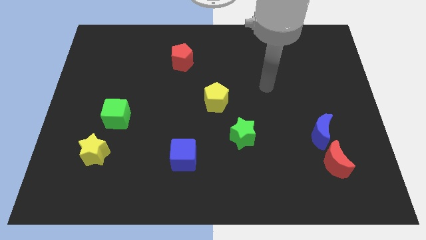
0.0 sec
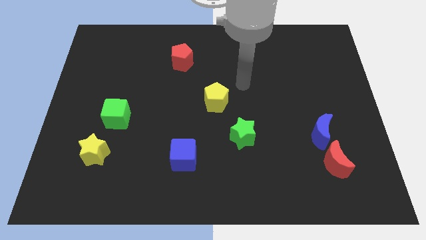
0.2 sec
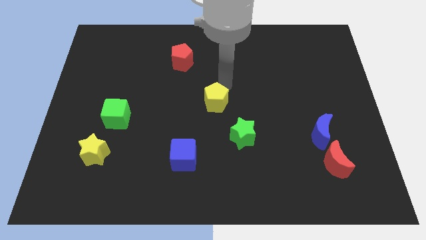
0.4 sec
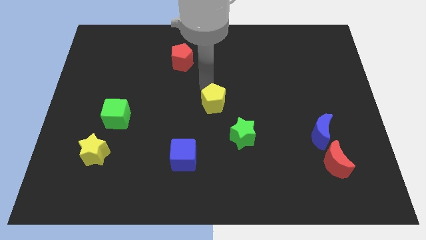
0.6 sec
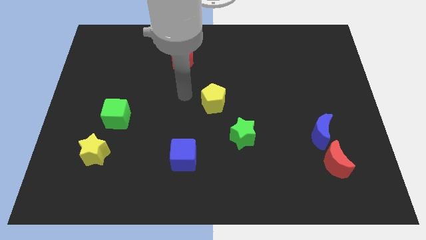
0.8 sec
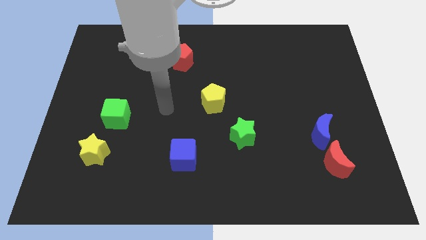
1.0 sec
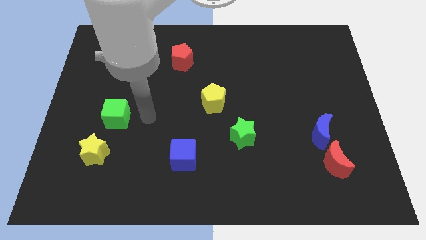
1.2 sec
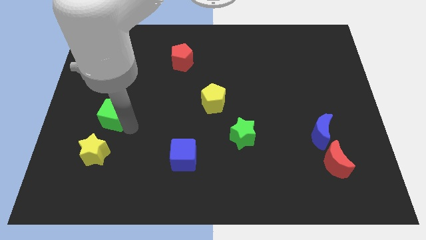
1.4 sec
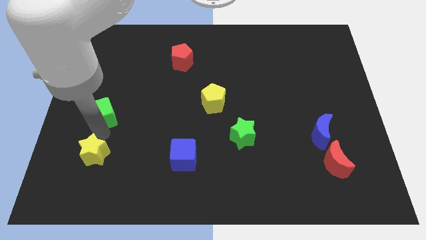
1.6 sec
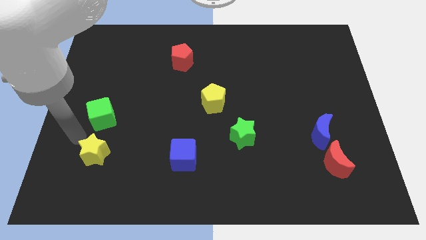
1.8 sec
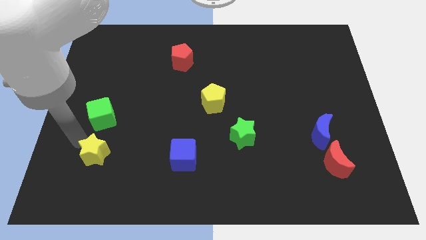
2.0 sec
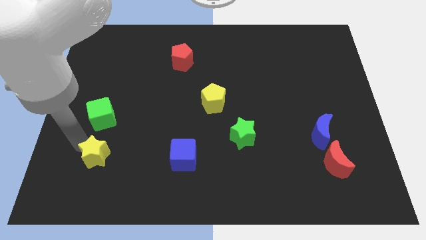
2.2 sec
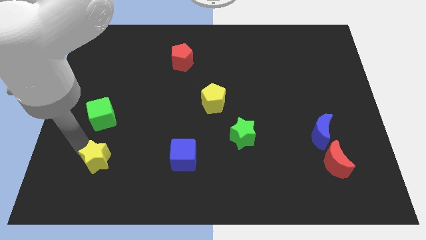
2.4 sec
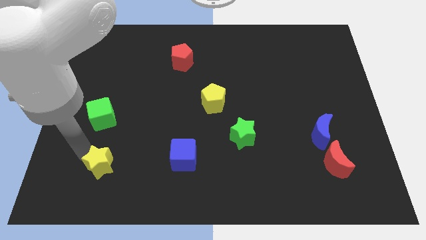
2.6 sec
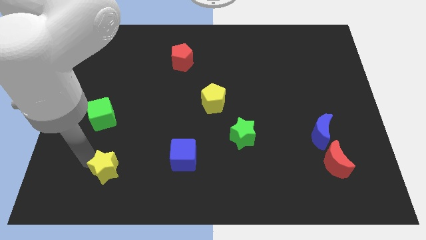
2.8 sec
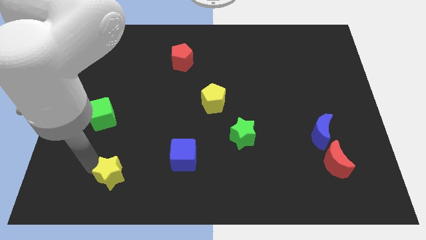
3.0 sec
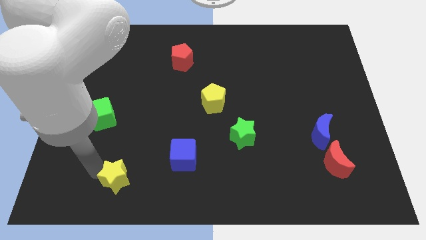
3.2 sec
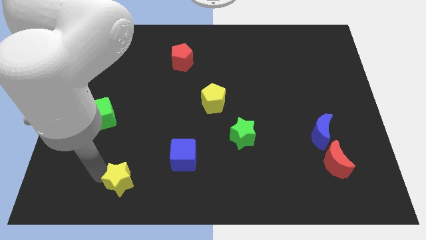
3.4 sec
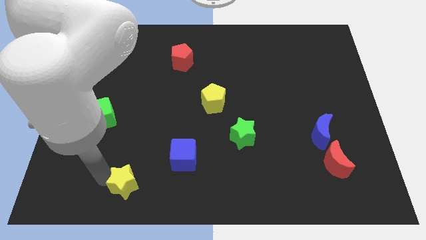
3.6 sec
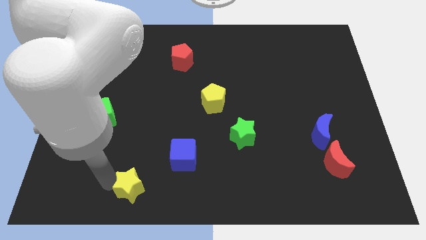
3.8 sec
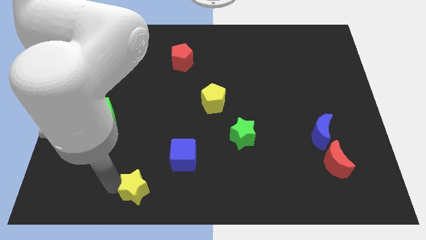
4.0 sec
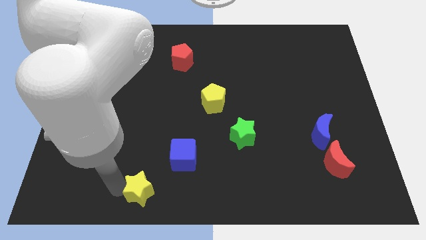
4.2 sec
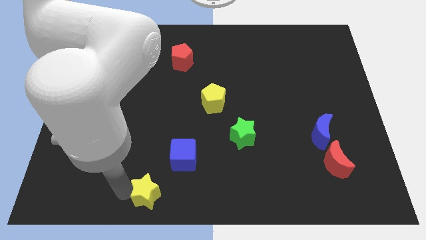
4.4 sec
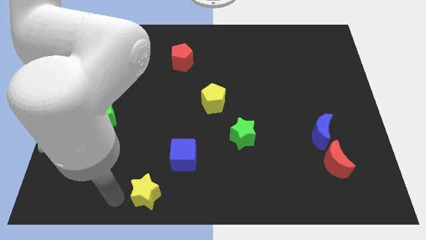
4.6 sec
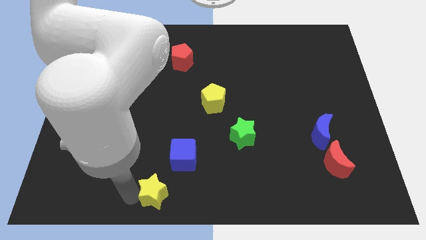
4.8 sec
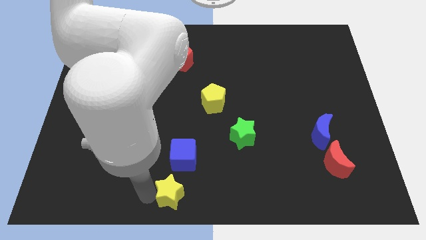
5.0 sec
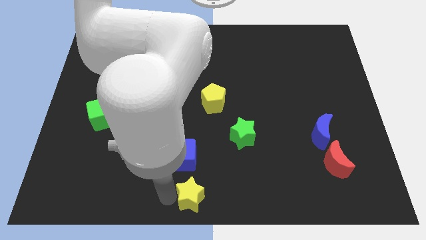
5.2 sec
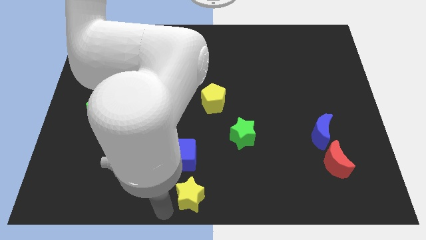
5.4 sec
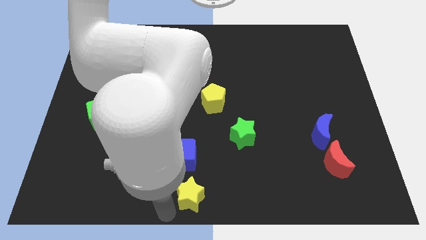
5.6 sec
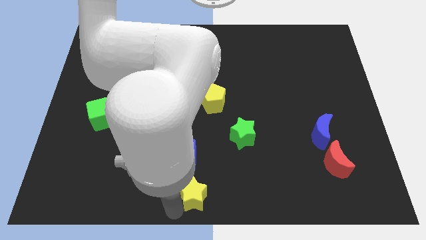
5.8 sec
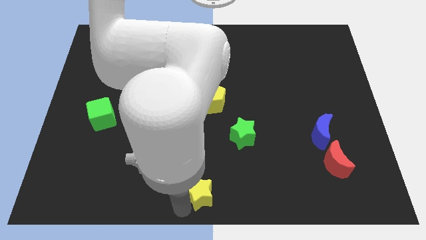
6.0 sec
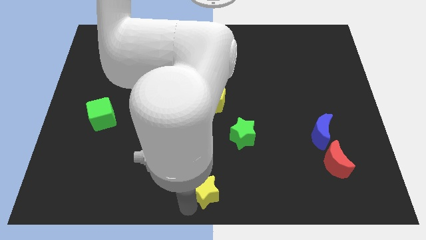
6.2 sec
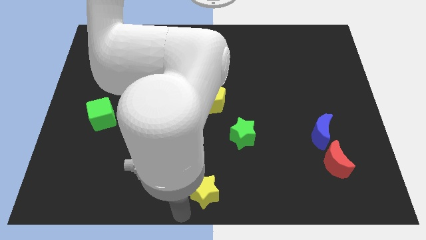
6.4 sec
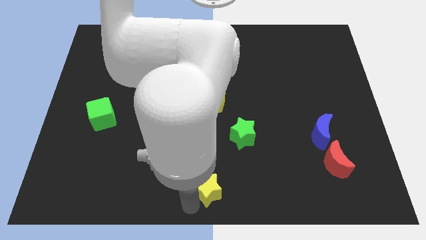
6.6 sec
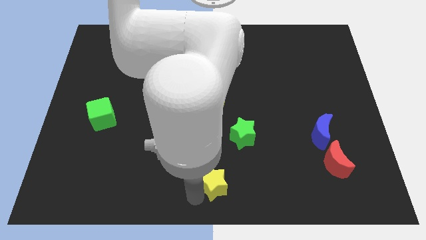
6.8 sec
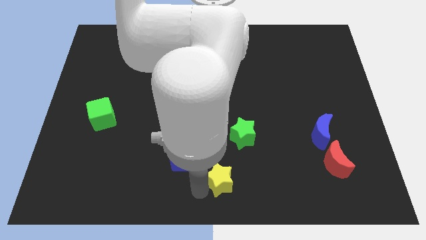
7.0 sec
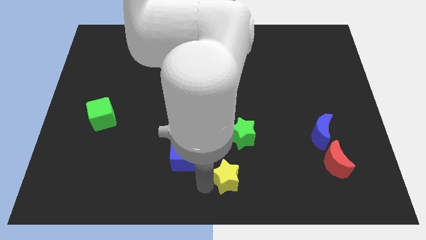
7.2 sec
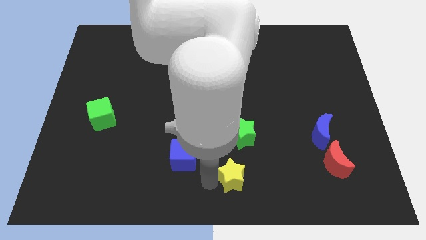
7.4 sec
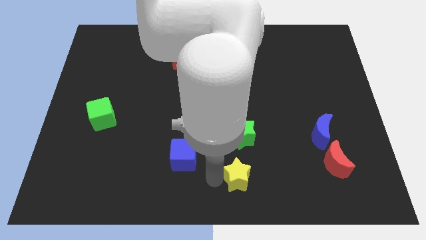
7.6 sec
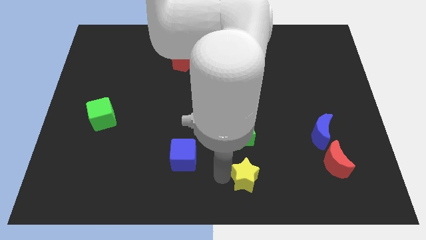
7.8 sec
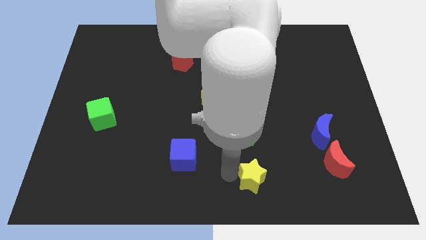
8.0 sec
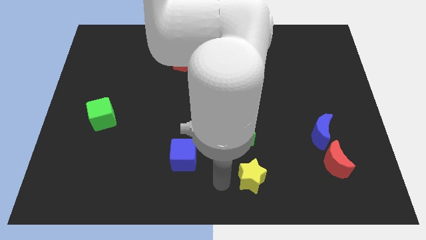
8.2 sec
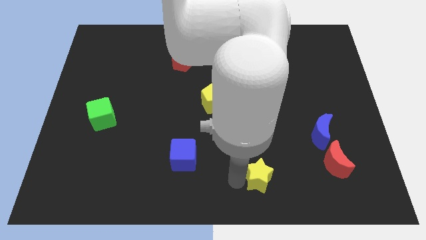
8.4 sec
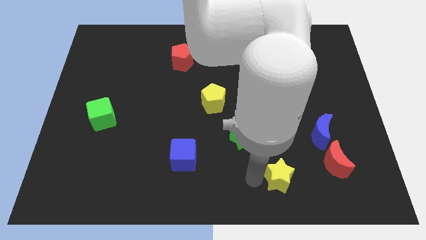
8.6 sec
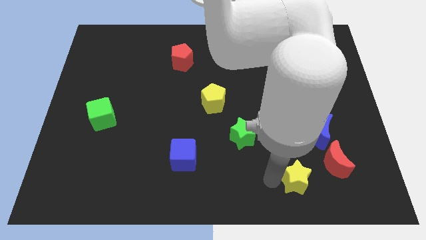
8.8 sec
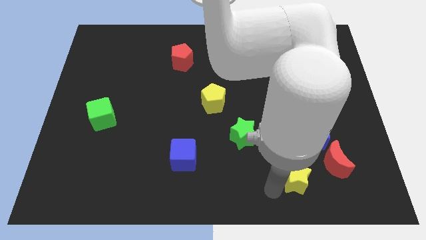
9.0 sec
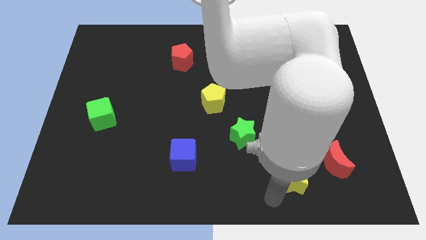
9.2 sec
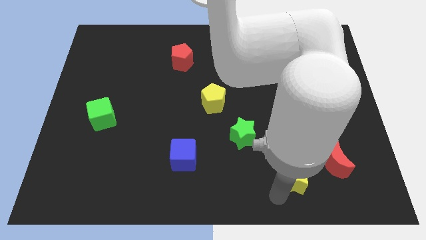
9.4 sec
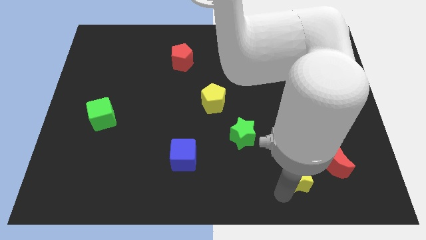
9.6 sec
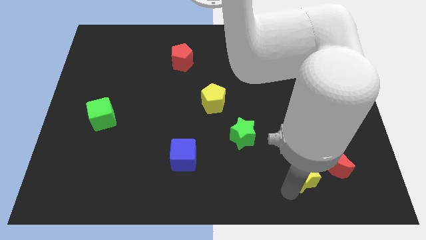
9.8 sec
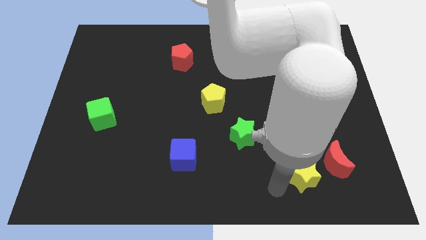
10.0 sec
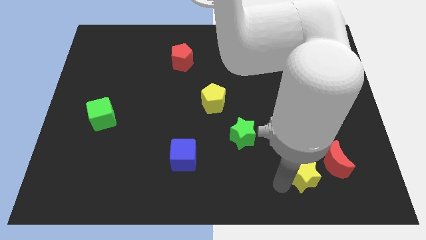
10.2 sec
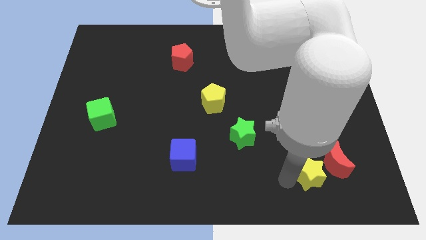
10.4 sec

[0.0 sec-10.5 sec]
move the yellow star close to the red moon

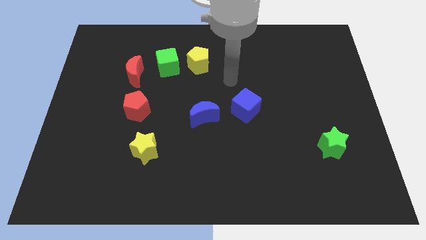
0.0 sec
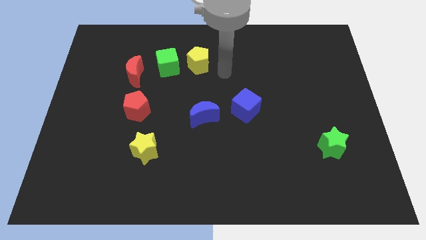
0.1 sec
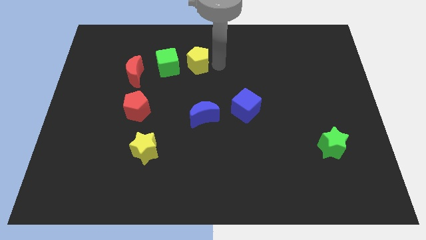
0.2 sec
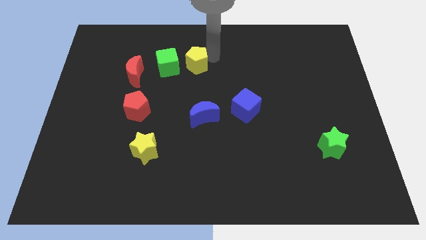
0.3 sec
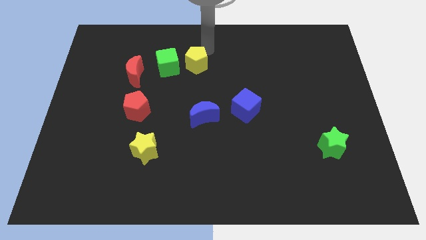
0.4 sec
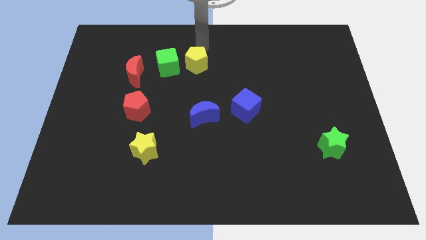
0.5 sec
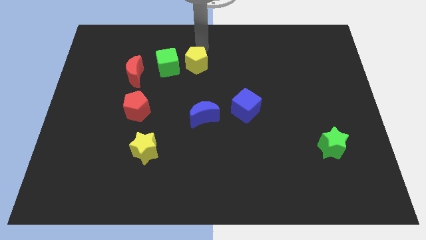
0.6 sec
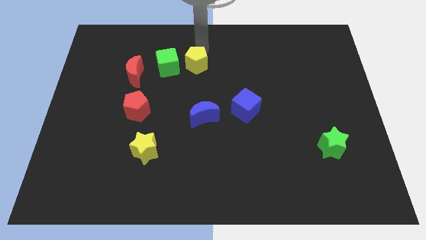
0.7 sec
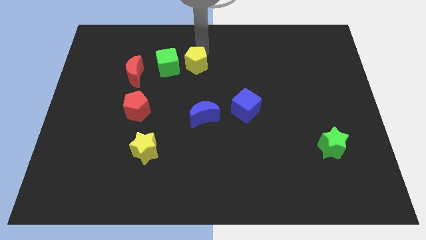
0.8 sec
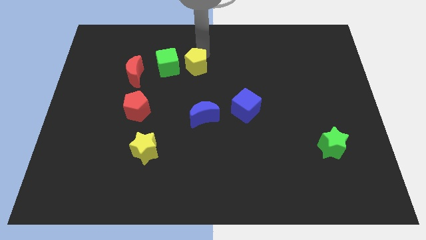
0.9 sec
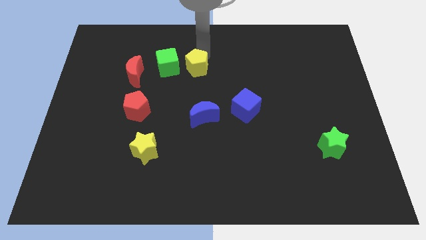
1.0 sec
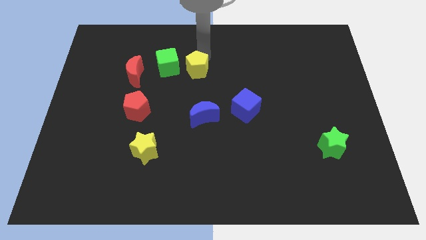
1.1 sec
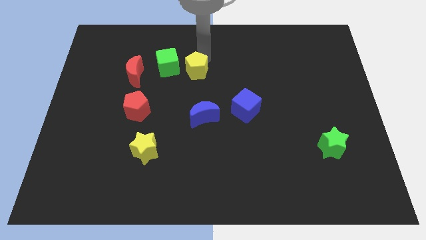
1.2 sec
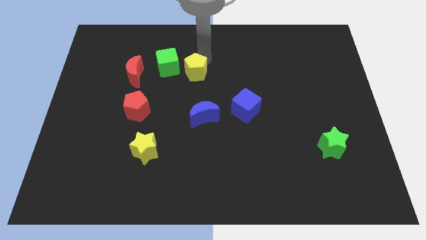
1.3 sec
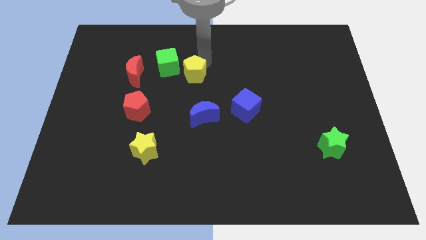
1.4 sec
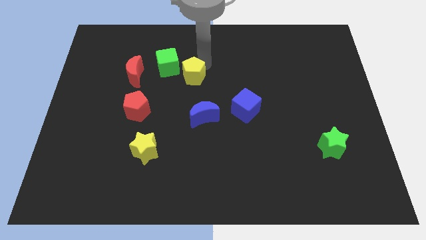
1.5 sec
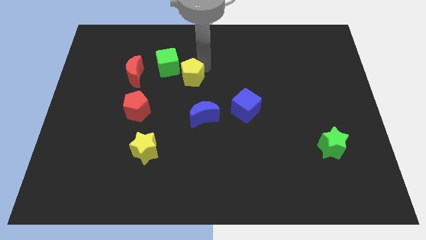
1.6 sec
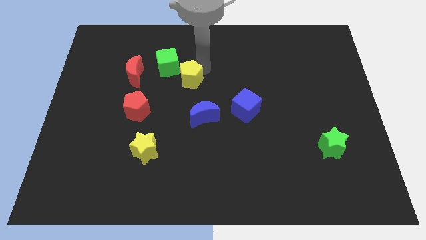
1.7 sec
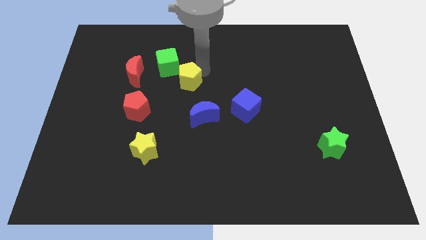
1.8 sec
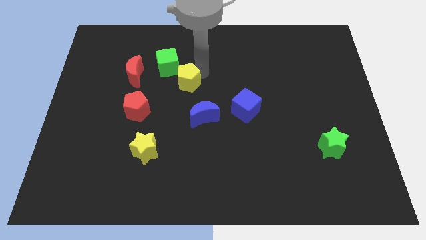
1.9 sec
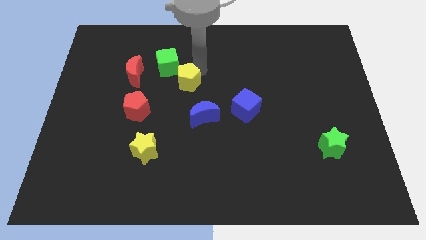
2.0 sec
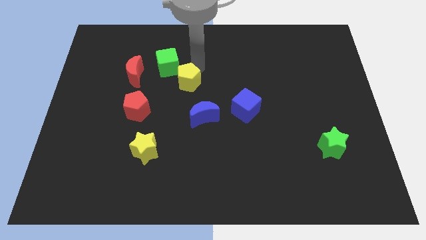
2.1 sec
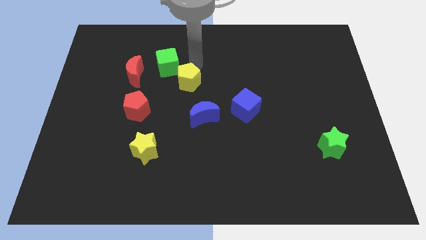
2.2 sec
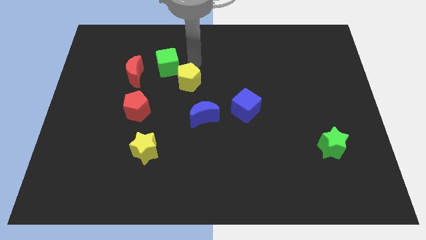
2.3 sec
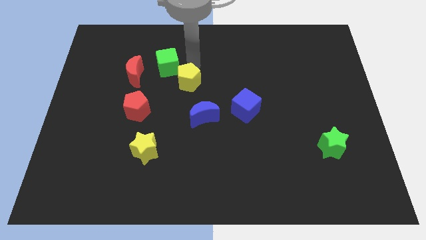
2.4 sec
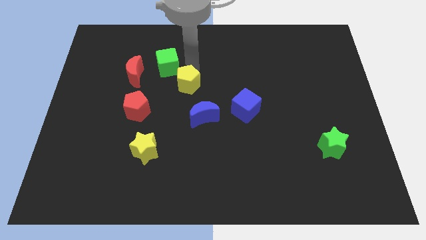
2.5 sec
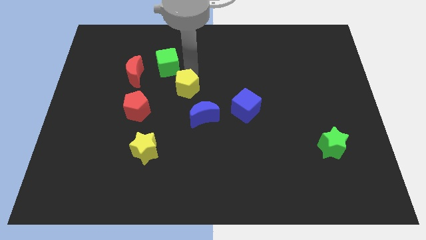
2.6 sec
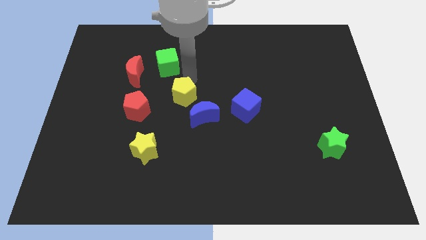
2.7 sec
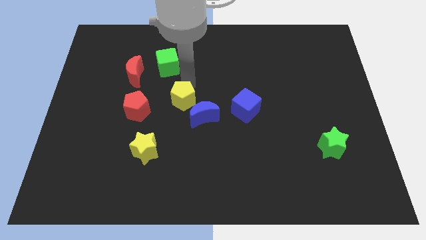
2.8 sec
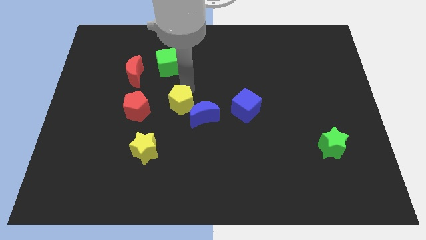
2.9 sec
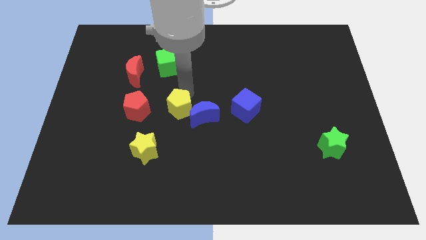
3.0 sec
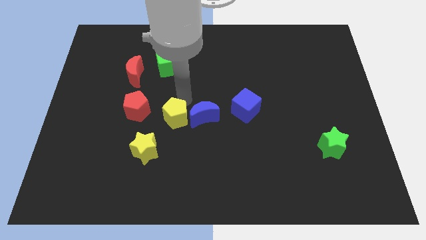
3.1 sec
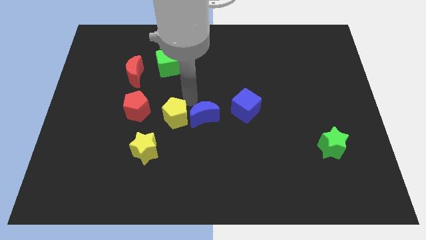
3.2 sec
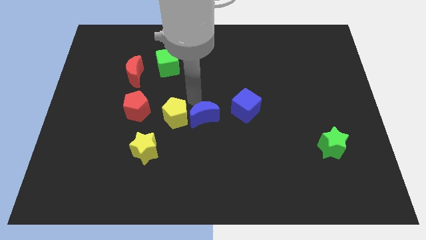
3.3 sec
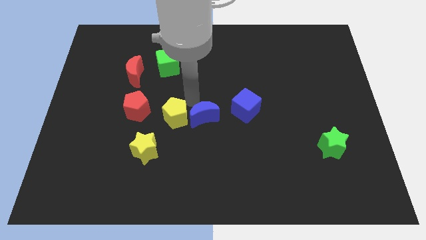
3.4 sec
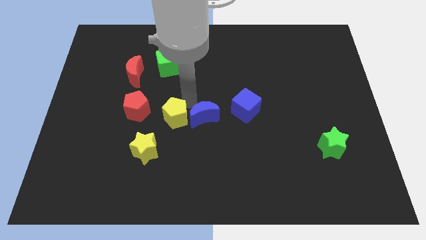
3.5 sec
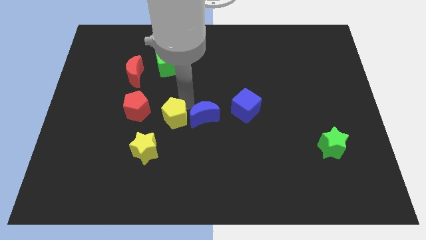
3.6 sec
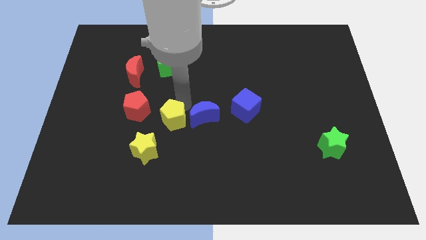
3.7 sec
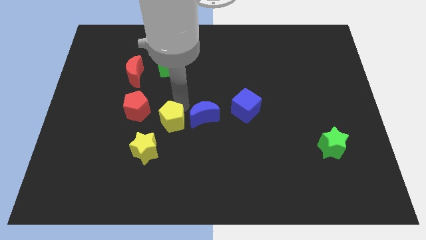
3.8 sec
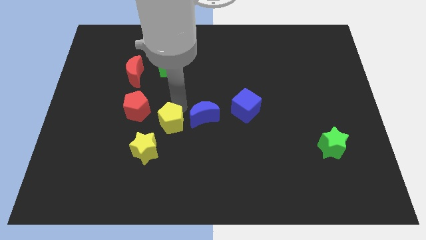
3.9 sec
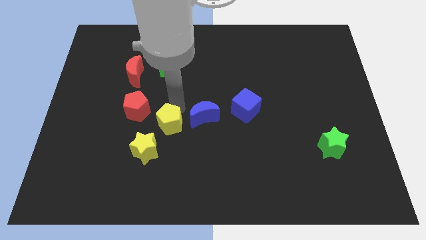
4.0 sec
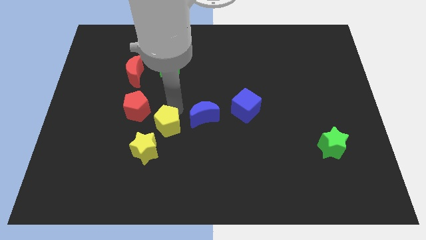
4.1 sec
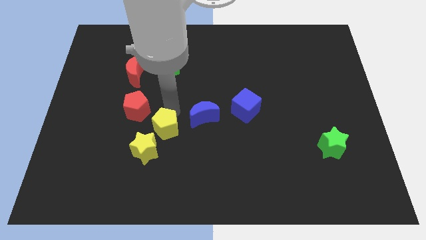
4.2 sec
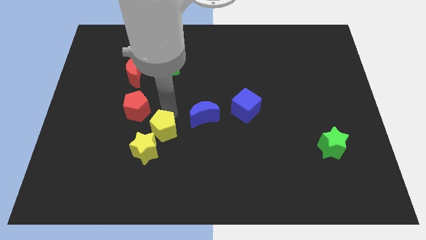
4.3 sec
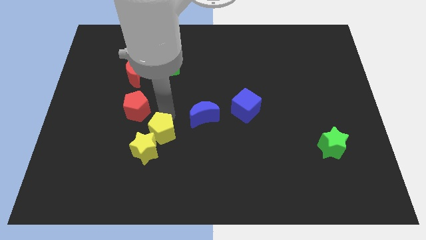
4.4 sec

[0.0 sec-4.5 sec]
push the yellow pentagon towards the yellow star
